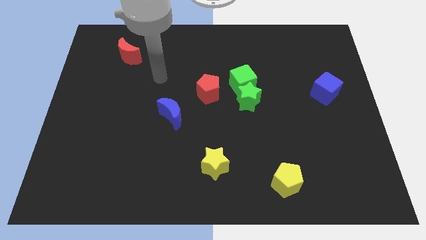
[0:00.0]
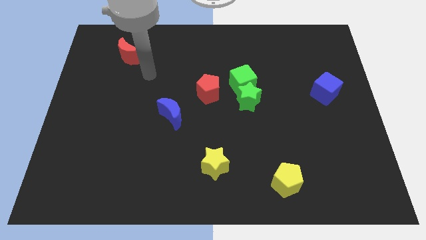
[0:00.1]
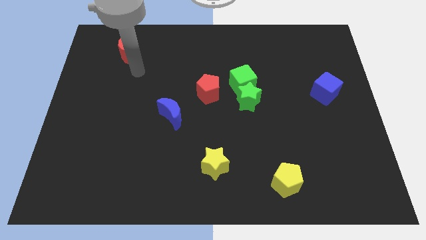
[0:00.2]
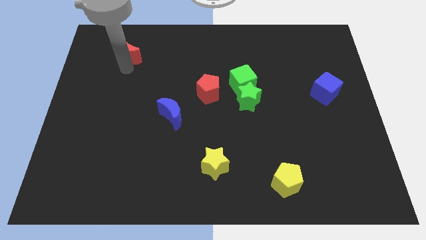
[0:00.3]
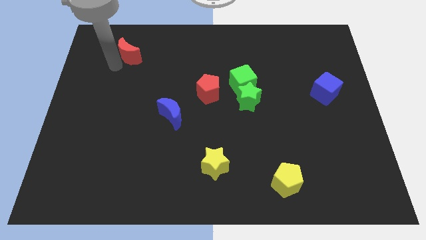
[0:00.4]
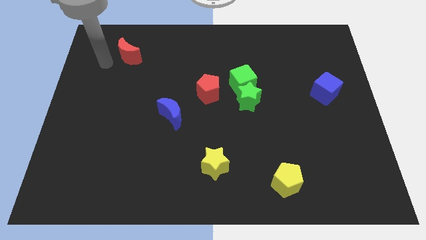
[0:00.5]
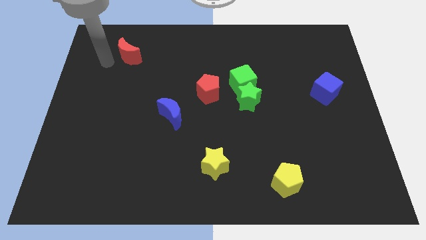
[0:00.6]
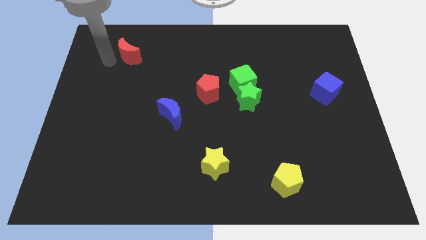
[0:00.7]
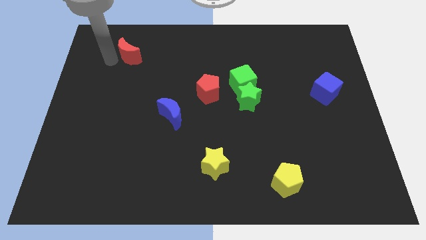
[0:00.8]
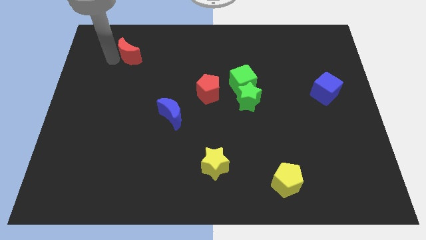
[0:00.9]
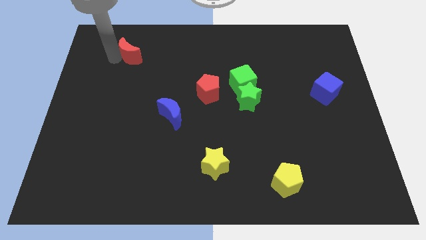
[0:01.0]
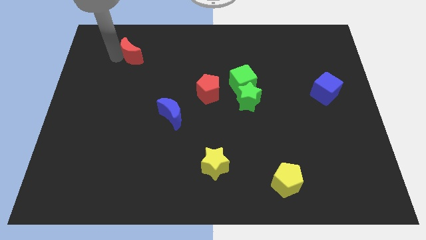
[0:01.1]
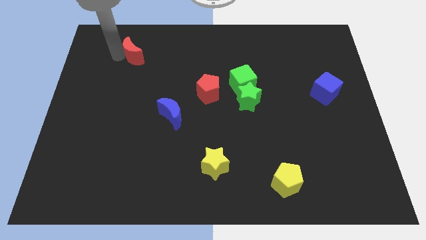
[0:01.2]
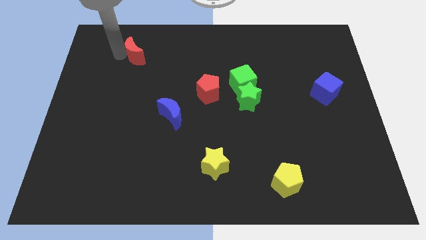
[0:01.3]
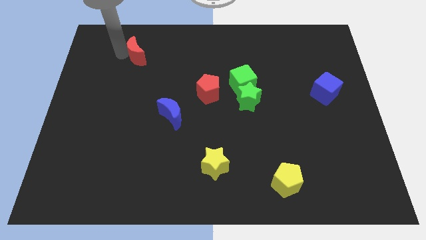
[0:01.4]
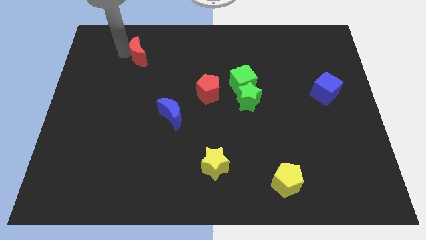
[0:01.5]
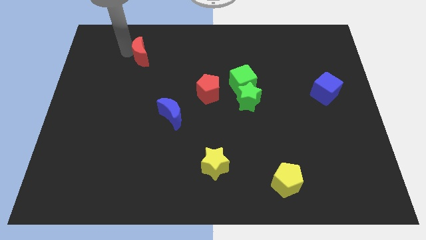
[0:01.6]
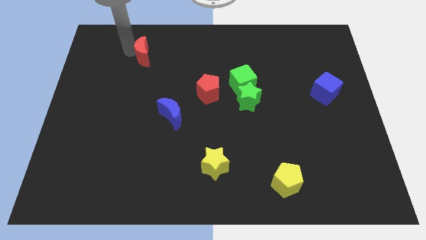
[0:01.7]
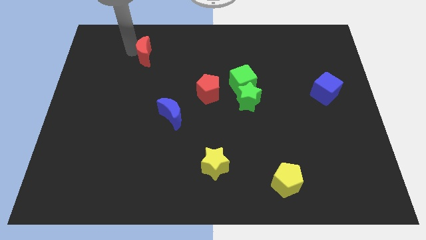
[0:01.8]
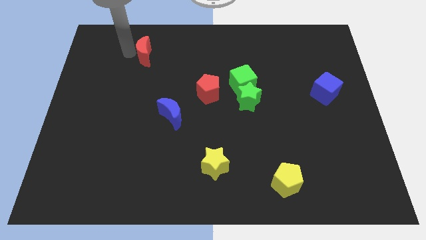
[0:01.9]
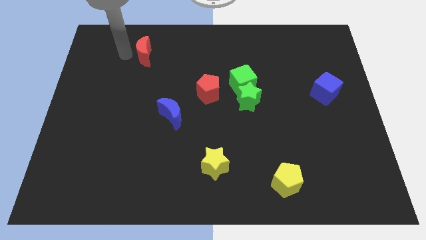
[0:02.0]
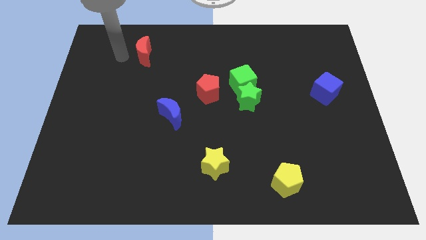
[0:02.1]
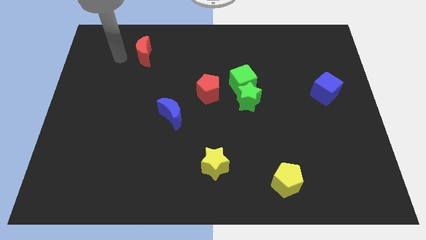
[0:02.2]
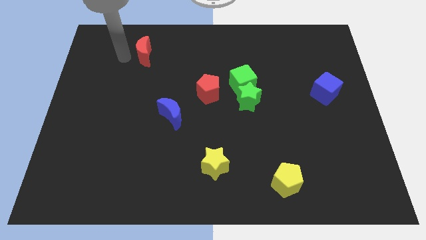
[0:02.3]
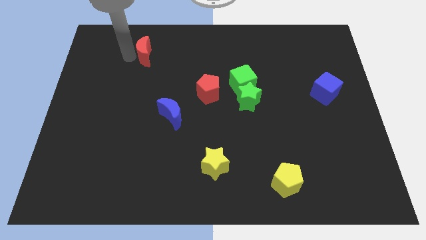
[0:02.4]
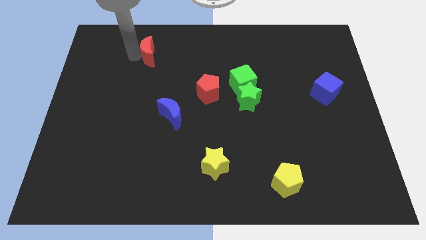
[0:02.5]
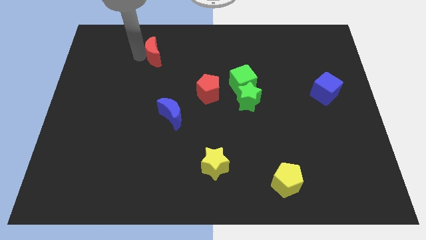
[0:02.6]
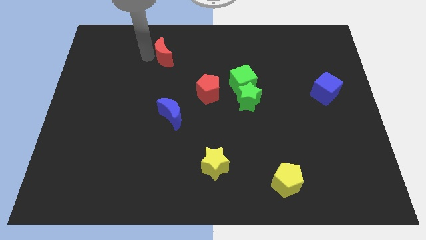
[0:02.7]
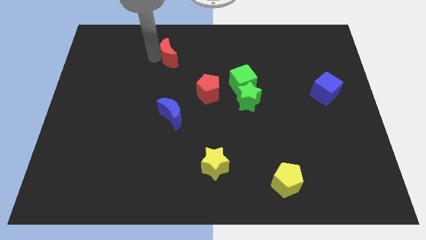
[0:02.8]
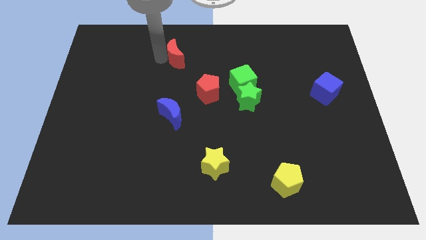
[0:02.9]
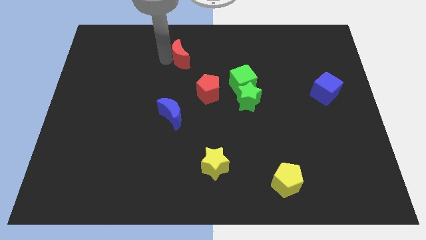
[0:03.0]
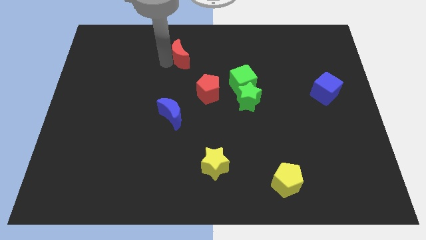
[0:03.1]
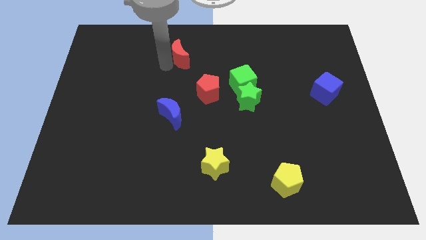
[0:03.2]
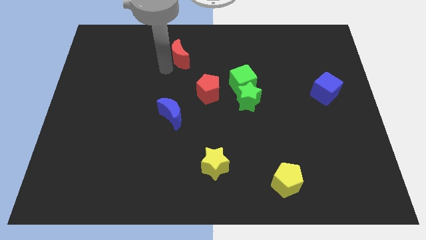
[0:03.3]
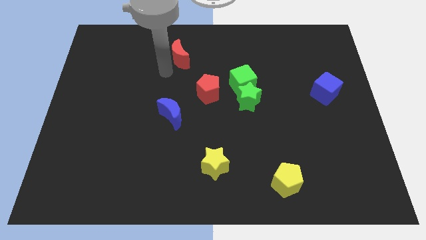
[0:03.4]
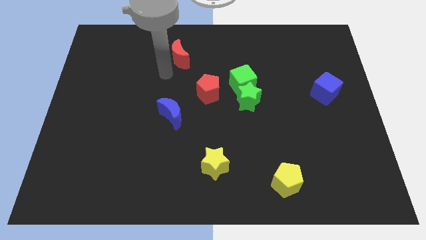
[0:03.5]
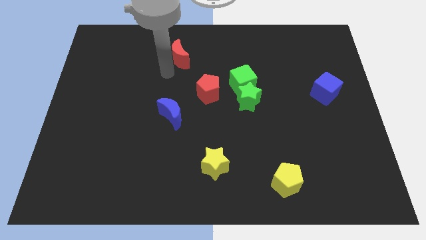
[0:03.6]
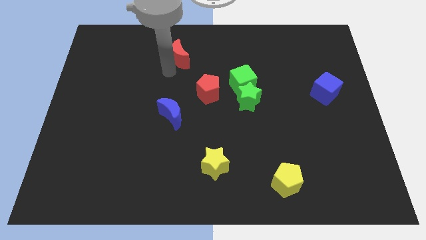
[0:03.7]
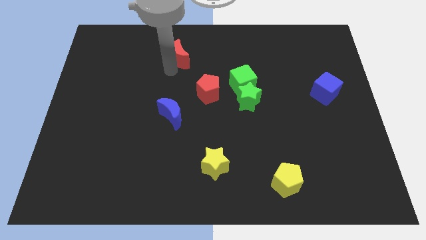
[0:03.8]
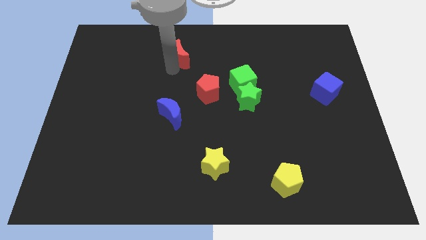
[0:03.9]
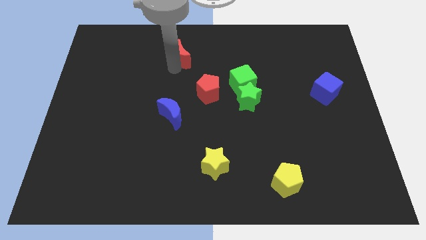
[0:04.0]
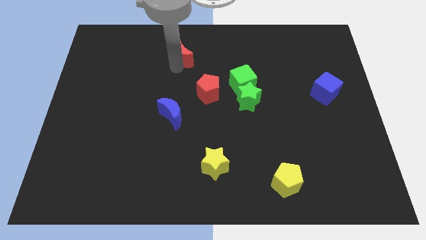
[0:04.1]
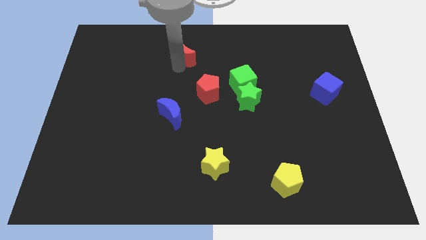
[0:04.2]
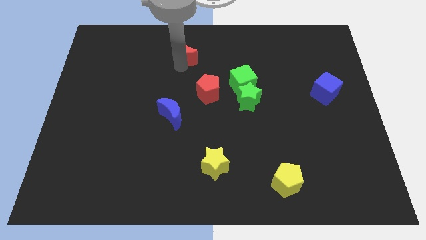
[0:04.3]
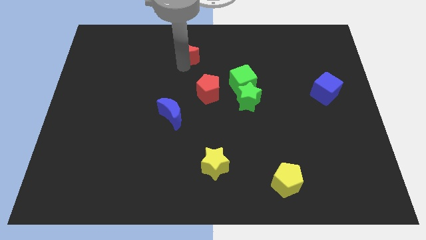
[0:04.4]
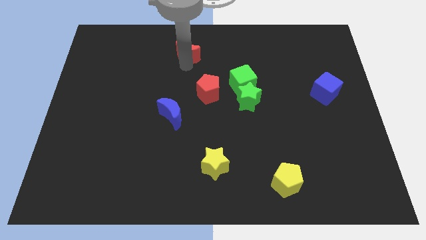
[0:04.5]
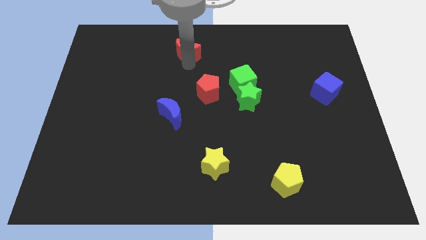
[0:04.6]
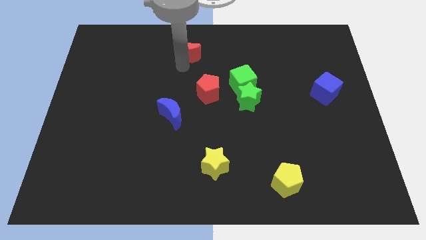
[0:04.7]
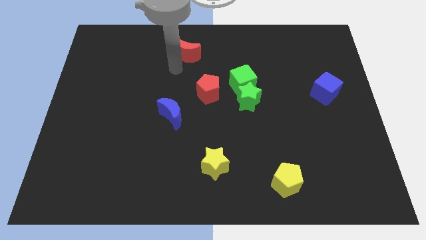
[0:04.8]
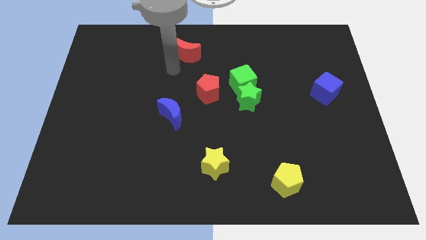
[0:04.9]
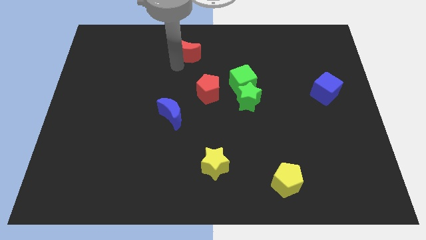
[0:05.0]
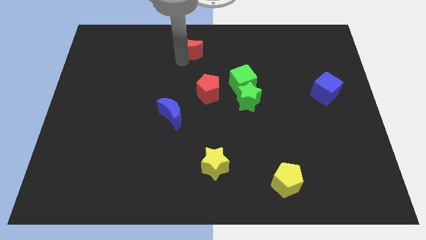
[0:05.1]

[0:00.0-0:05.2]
move the red moon to the top side

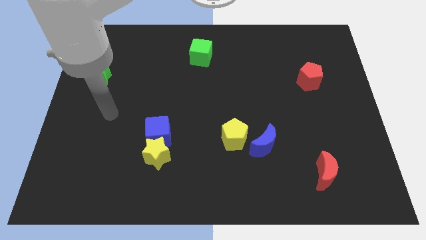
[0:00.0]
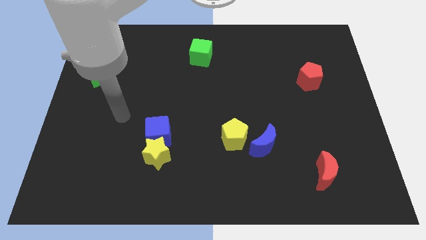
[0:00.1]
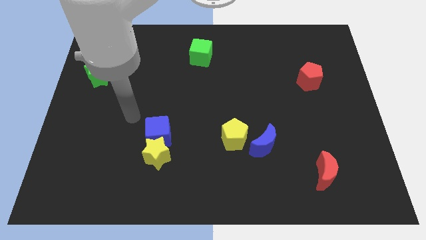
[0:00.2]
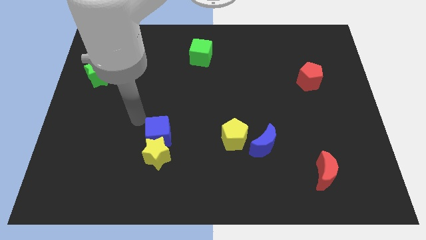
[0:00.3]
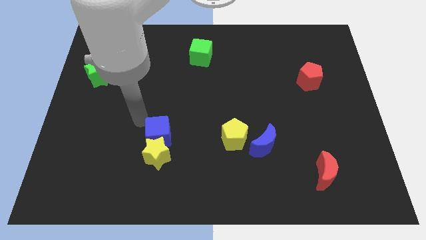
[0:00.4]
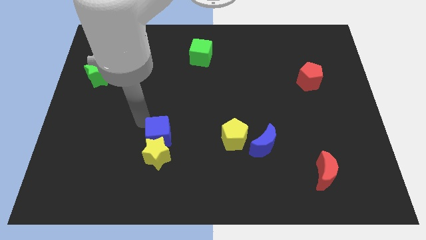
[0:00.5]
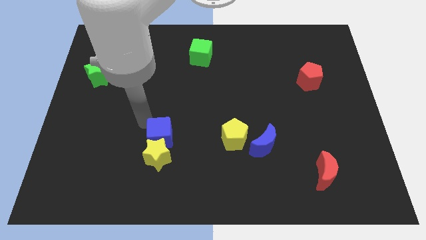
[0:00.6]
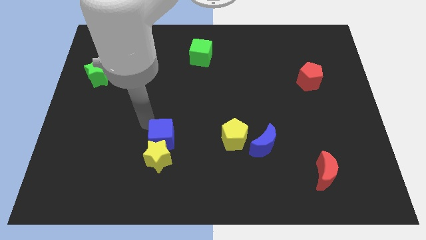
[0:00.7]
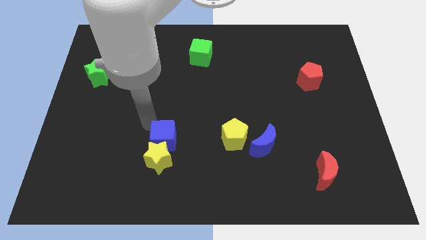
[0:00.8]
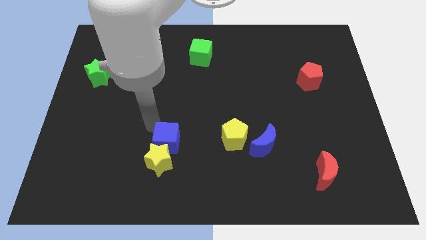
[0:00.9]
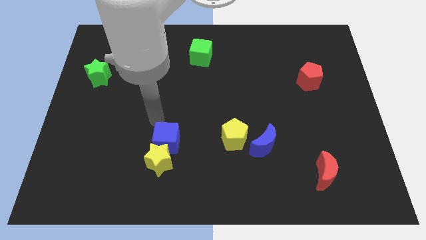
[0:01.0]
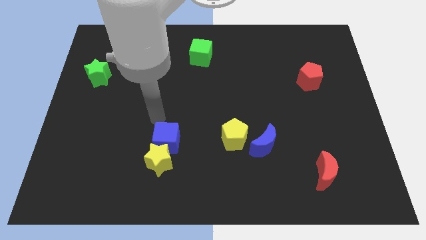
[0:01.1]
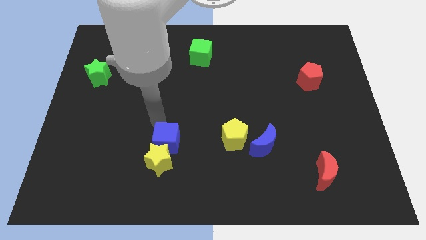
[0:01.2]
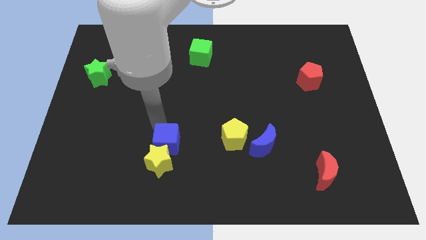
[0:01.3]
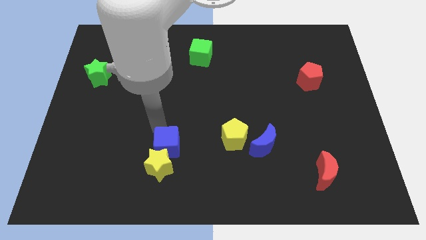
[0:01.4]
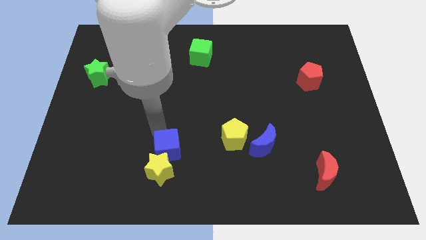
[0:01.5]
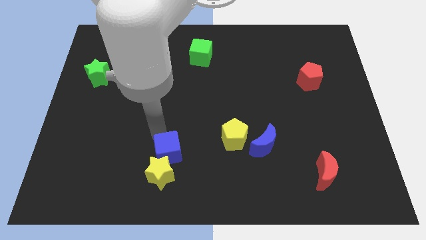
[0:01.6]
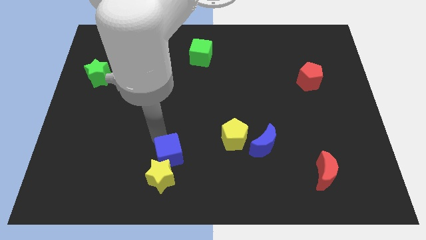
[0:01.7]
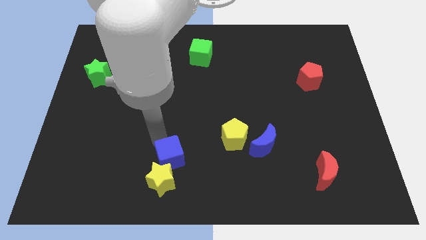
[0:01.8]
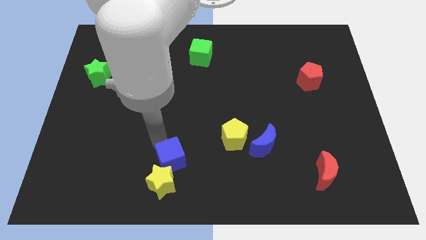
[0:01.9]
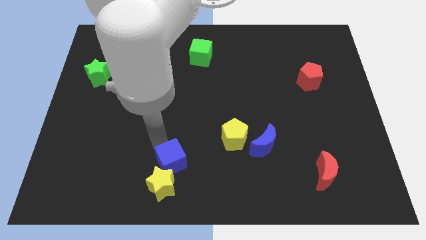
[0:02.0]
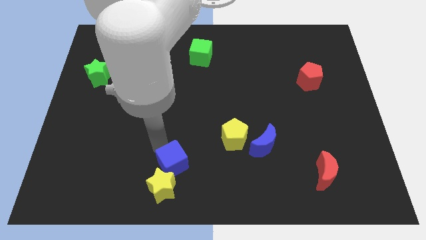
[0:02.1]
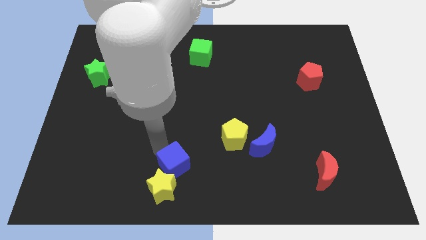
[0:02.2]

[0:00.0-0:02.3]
put the blue cube to the bottom
